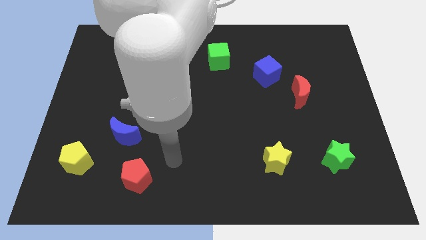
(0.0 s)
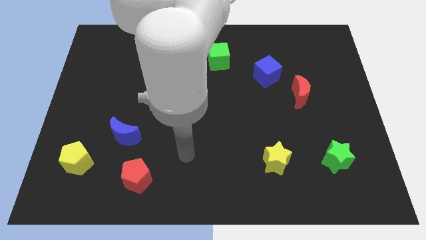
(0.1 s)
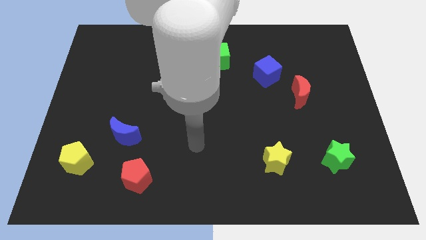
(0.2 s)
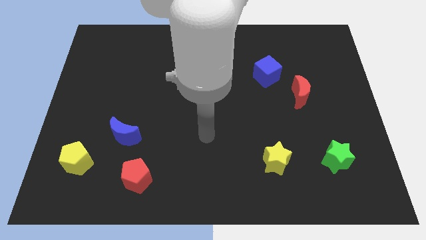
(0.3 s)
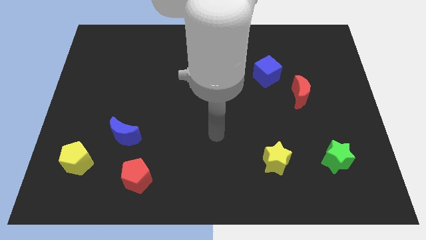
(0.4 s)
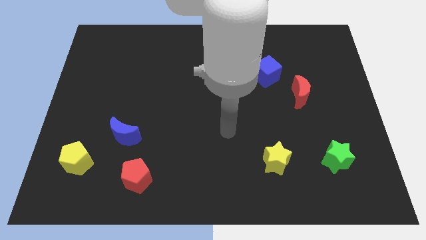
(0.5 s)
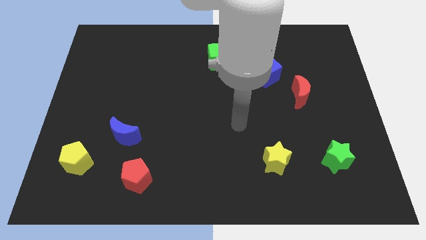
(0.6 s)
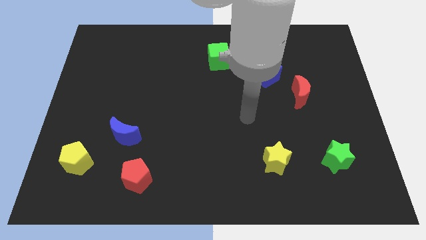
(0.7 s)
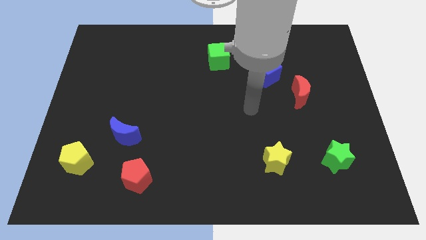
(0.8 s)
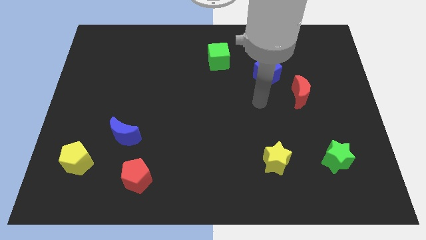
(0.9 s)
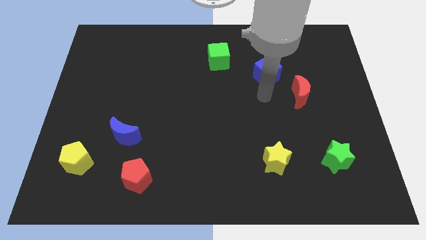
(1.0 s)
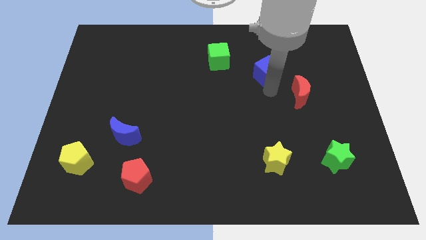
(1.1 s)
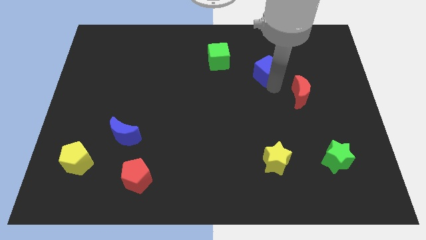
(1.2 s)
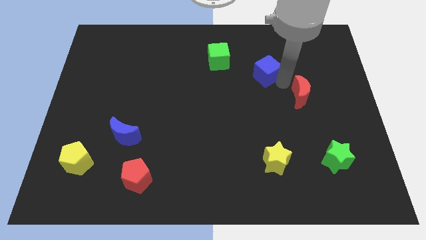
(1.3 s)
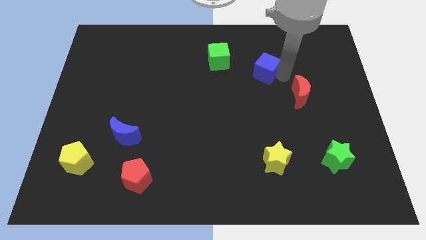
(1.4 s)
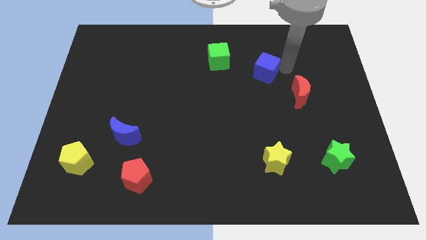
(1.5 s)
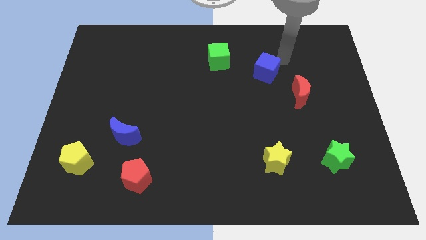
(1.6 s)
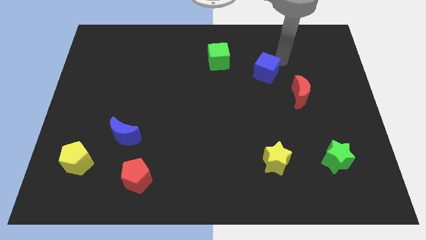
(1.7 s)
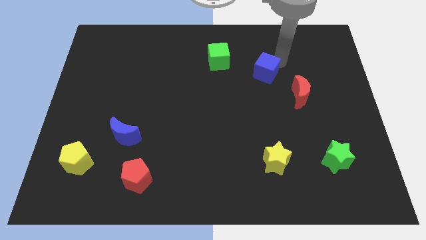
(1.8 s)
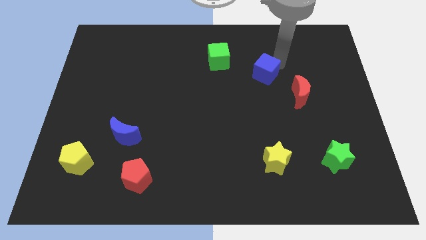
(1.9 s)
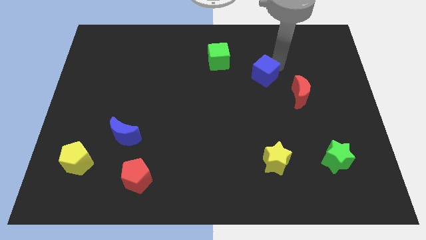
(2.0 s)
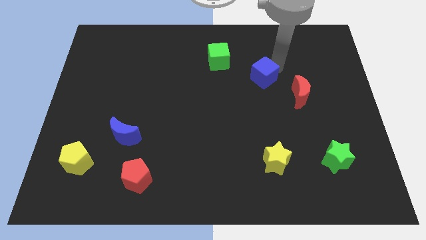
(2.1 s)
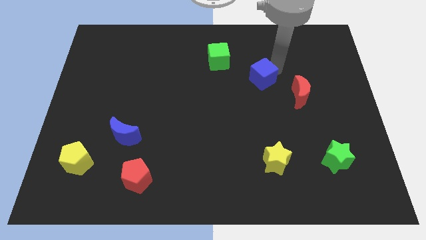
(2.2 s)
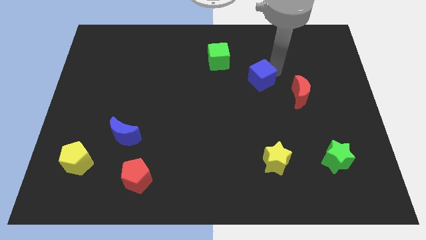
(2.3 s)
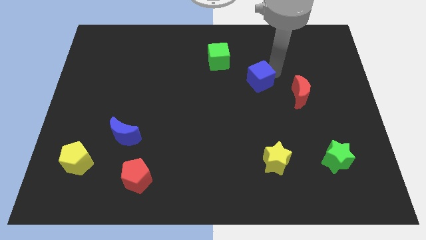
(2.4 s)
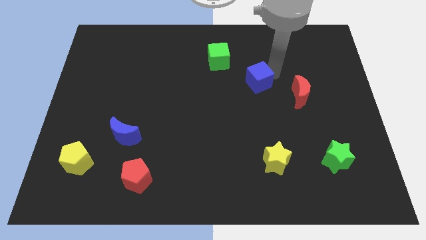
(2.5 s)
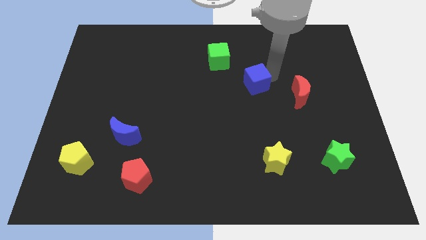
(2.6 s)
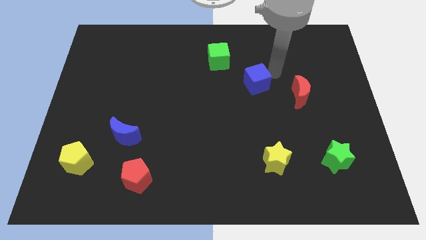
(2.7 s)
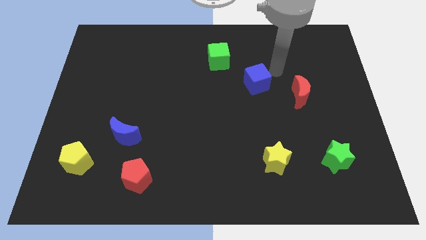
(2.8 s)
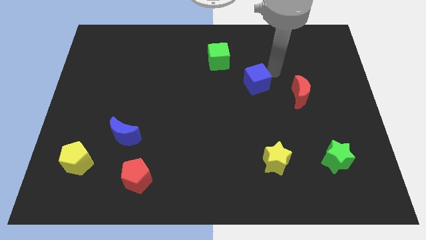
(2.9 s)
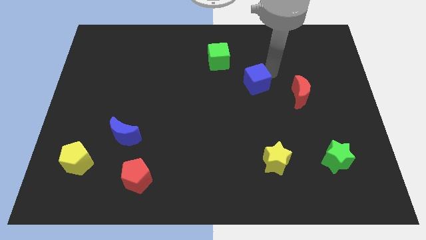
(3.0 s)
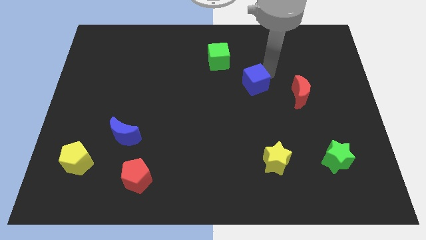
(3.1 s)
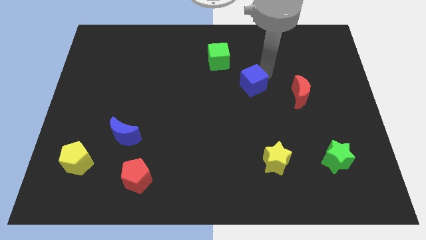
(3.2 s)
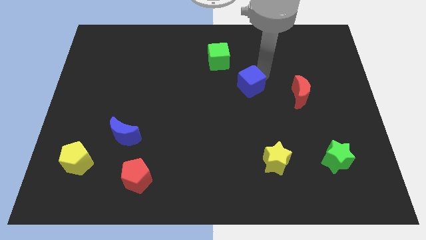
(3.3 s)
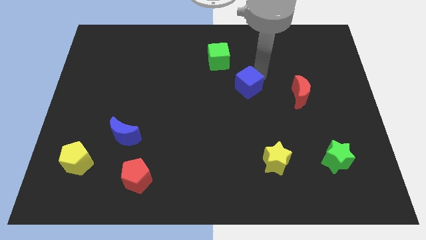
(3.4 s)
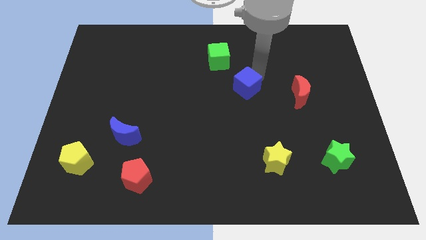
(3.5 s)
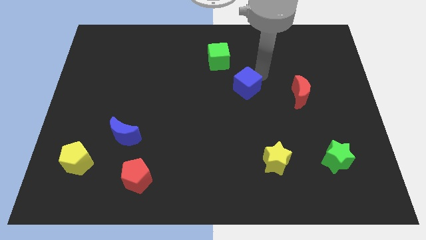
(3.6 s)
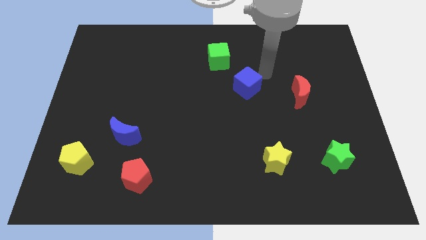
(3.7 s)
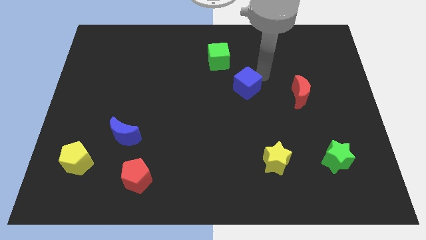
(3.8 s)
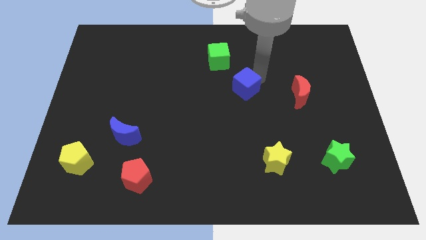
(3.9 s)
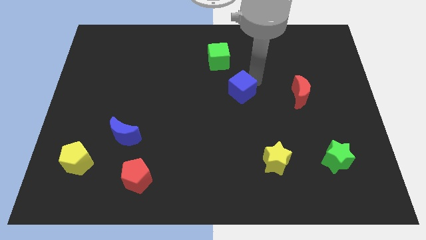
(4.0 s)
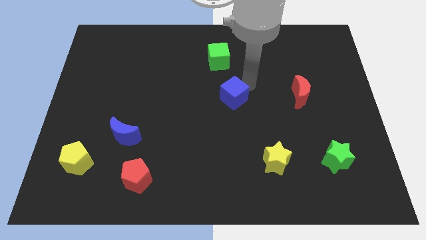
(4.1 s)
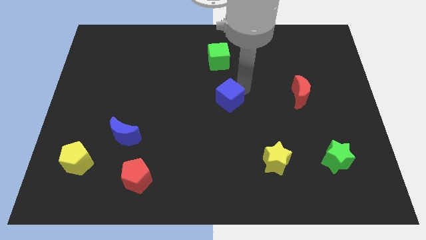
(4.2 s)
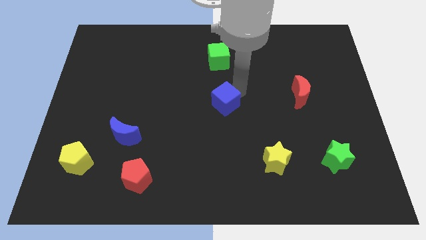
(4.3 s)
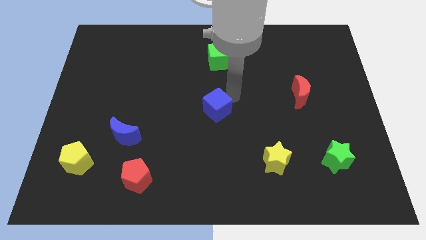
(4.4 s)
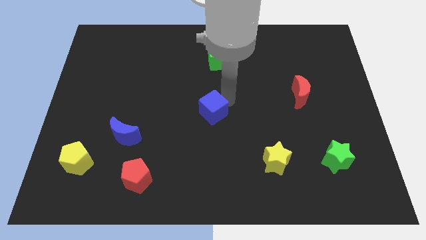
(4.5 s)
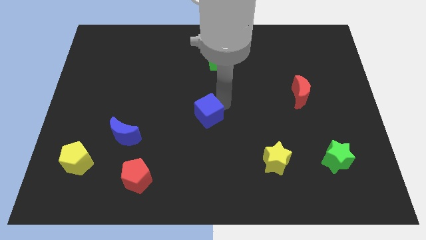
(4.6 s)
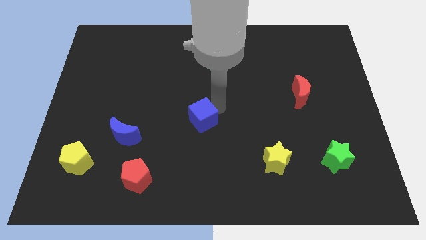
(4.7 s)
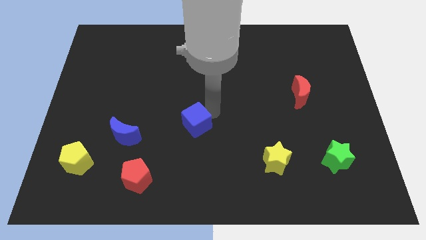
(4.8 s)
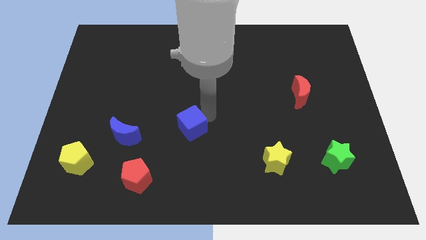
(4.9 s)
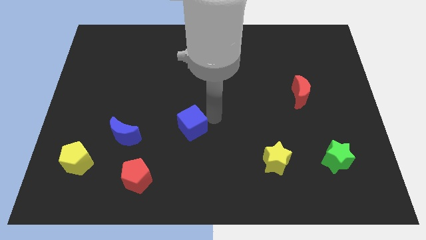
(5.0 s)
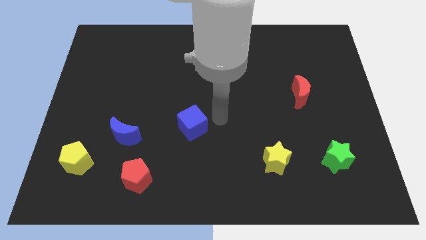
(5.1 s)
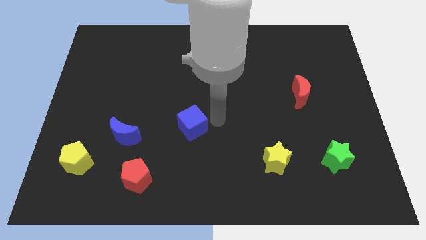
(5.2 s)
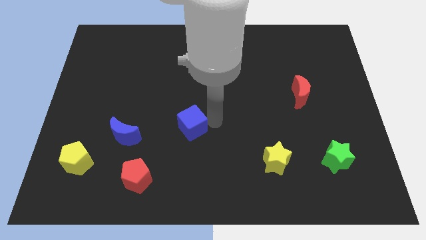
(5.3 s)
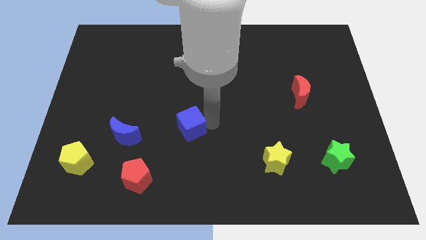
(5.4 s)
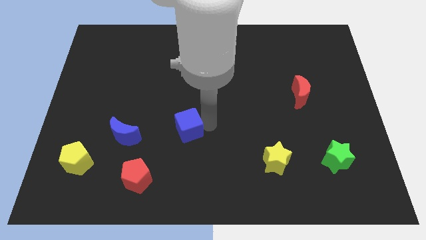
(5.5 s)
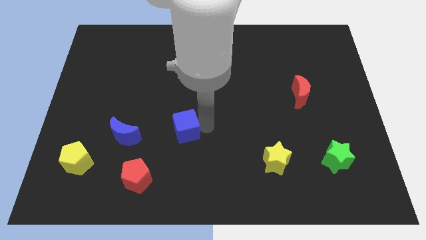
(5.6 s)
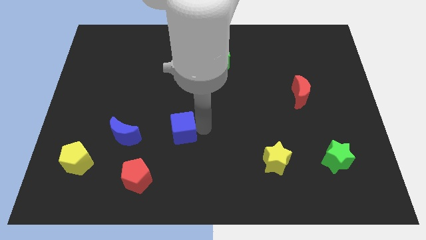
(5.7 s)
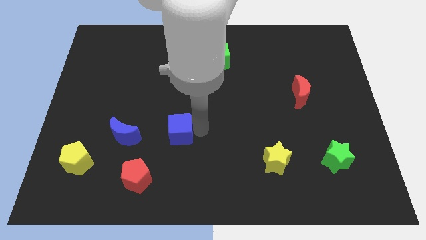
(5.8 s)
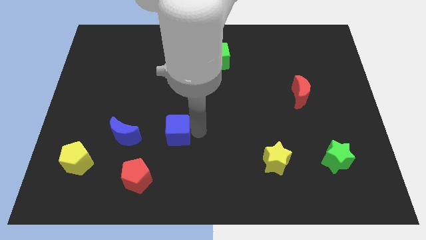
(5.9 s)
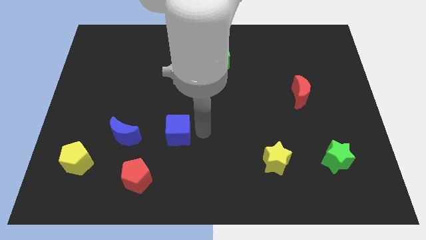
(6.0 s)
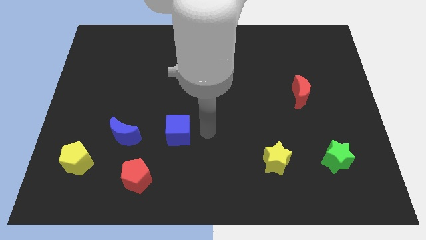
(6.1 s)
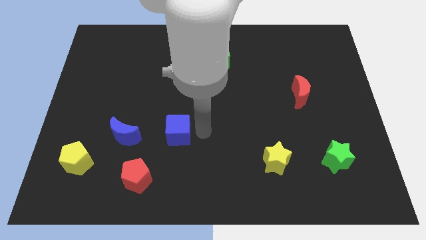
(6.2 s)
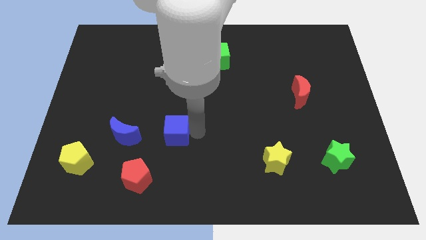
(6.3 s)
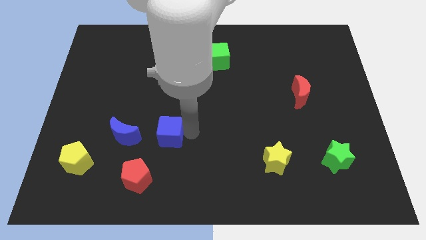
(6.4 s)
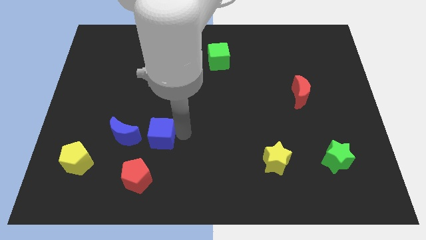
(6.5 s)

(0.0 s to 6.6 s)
push the blue cube to the top of the red pentagon
